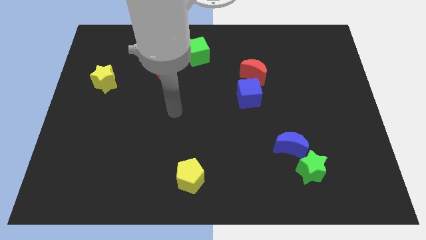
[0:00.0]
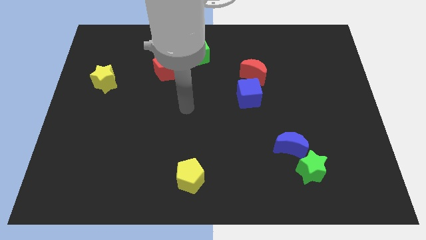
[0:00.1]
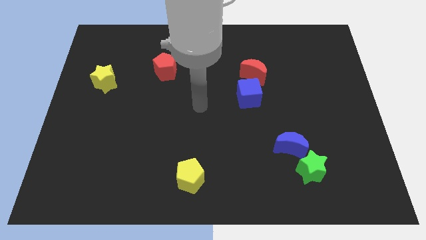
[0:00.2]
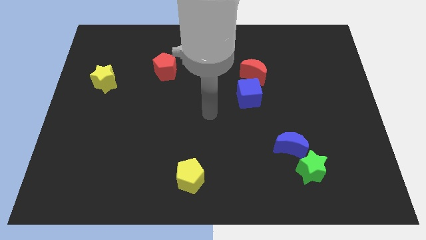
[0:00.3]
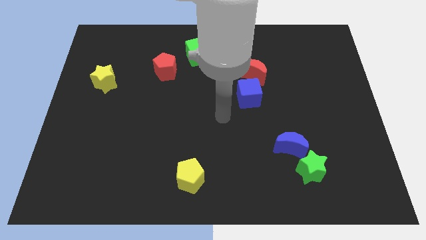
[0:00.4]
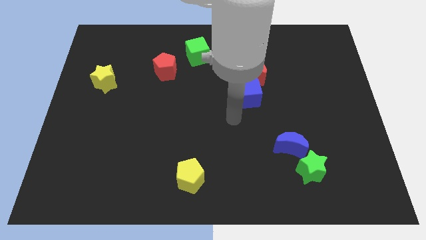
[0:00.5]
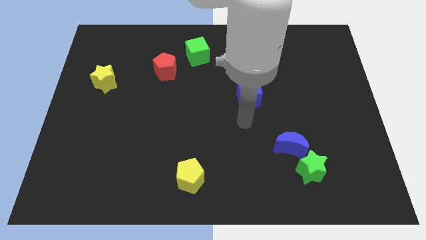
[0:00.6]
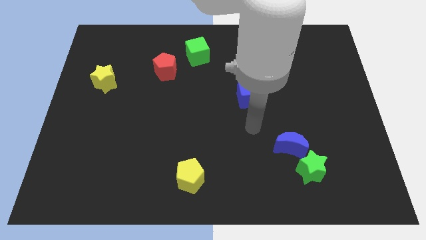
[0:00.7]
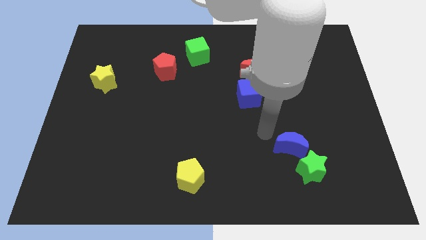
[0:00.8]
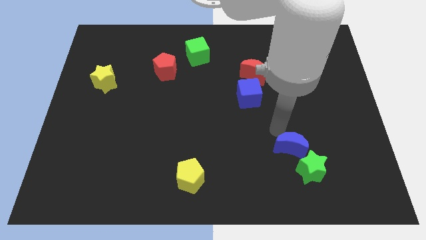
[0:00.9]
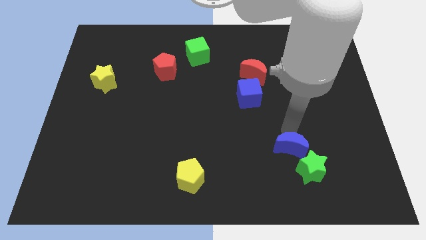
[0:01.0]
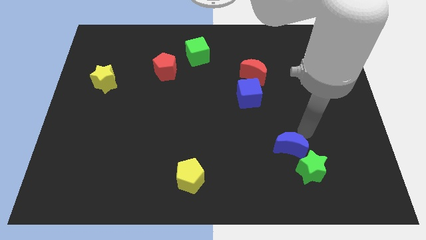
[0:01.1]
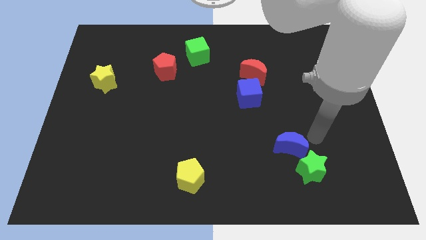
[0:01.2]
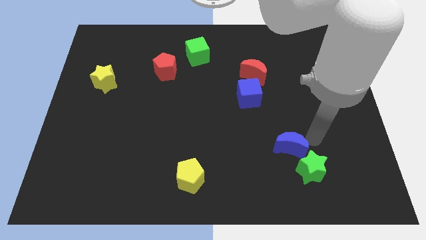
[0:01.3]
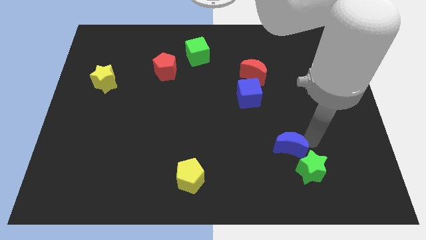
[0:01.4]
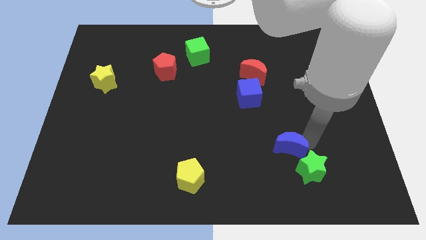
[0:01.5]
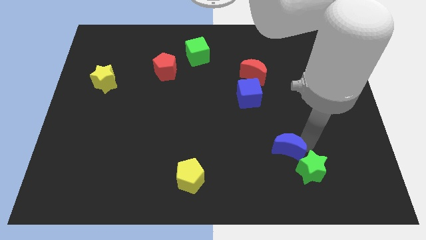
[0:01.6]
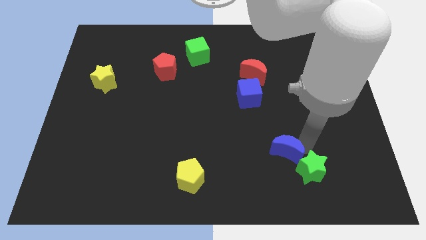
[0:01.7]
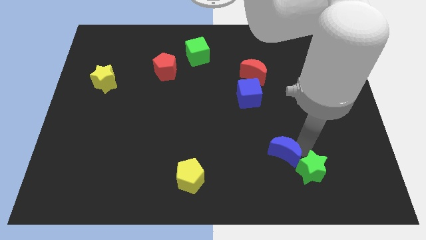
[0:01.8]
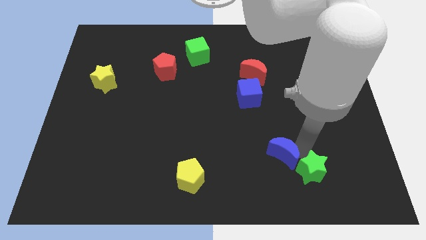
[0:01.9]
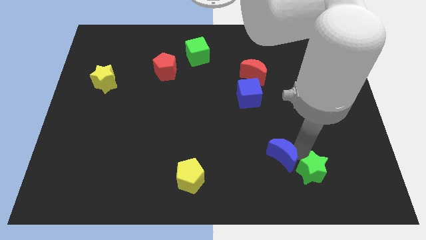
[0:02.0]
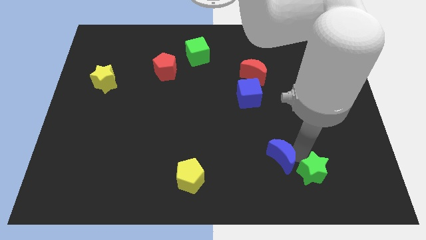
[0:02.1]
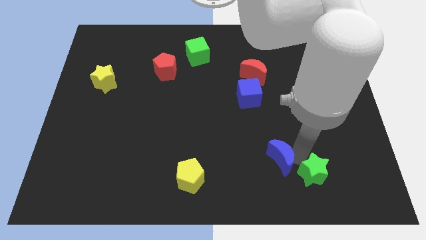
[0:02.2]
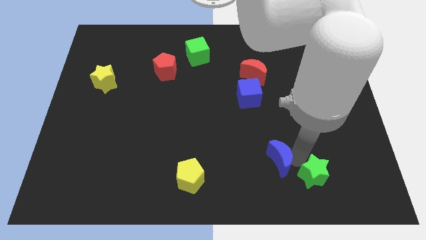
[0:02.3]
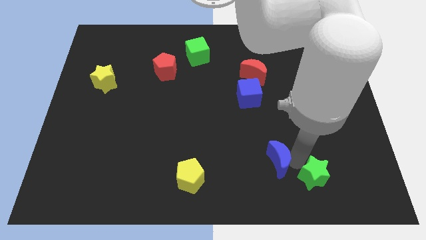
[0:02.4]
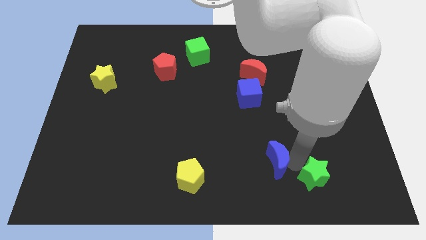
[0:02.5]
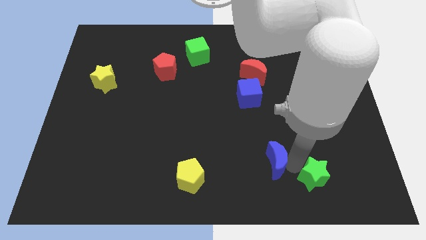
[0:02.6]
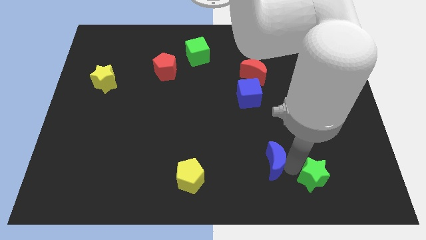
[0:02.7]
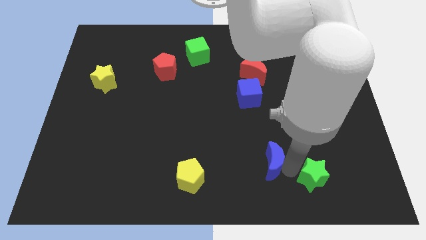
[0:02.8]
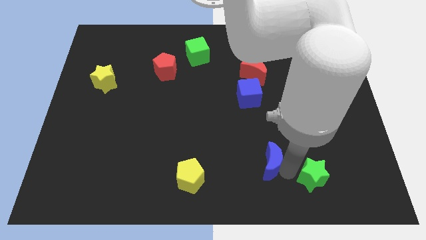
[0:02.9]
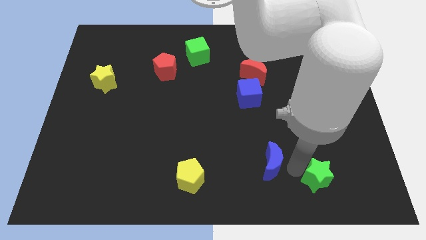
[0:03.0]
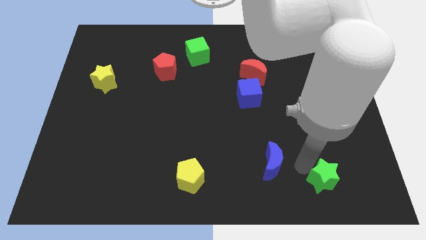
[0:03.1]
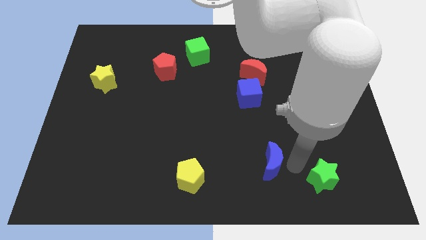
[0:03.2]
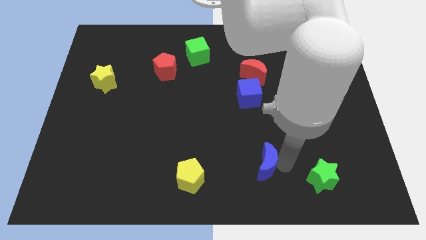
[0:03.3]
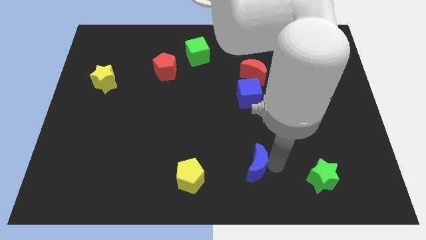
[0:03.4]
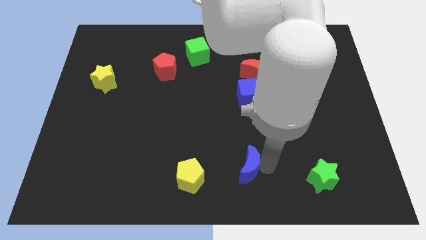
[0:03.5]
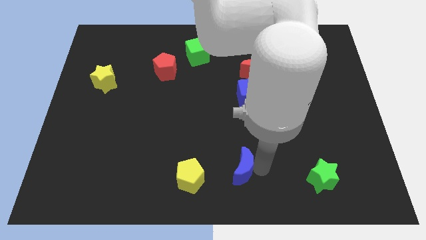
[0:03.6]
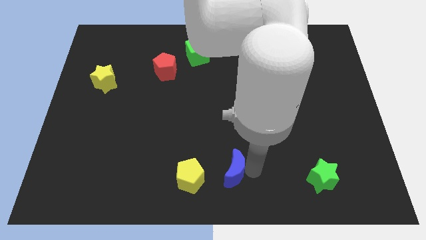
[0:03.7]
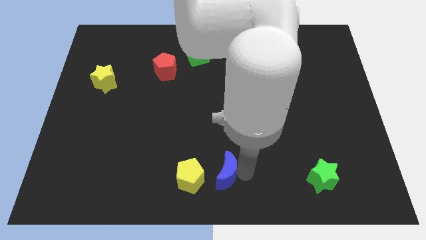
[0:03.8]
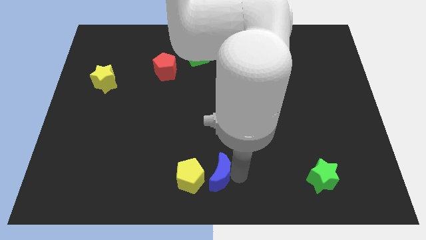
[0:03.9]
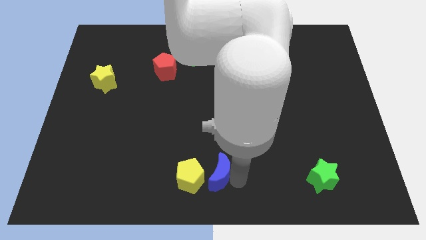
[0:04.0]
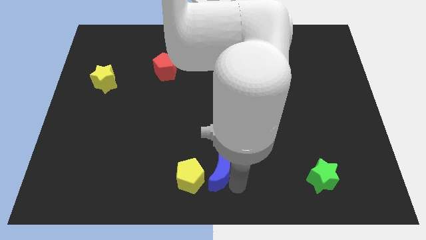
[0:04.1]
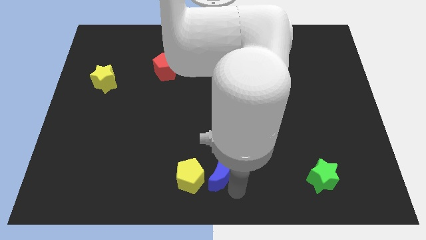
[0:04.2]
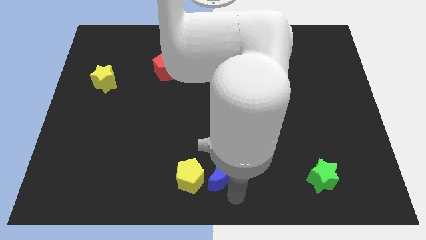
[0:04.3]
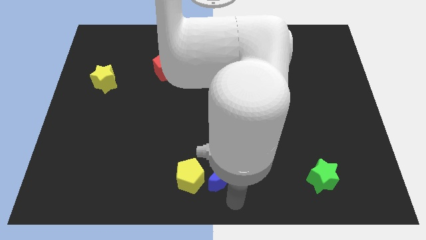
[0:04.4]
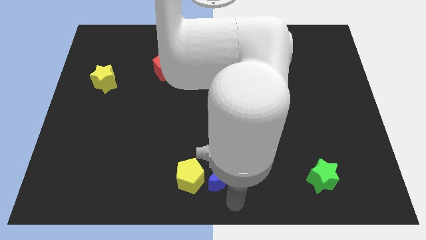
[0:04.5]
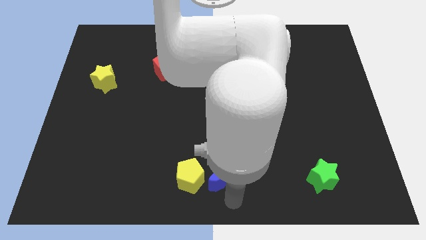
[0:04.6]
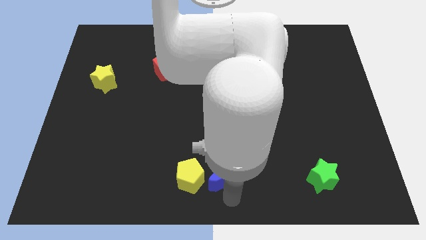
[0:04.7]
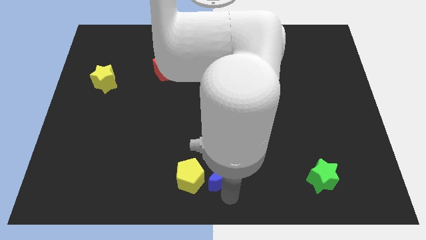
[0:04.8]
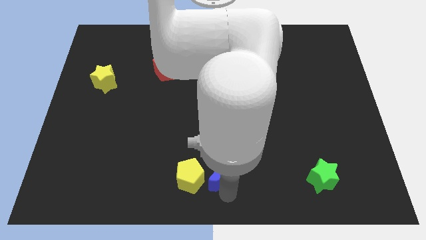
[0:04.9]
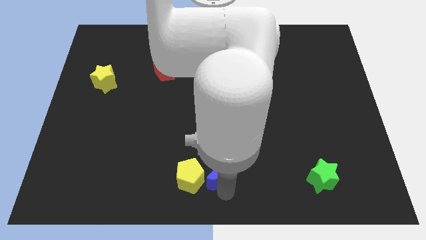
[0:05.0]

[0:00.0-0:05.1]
put the blue moon close to the yellow pentagon

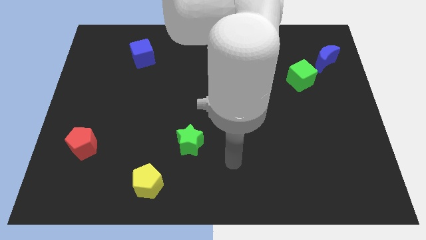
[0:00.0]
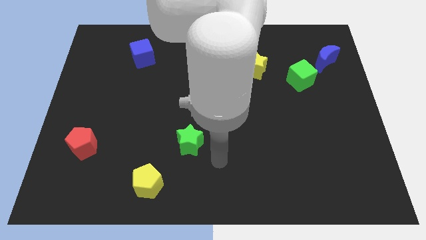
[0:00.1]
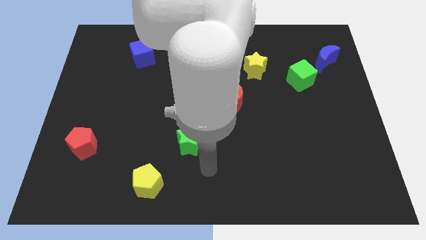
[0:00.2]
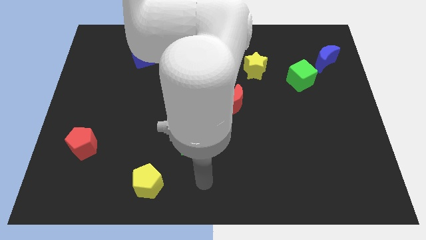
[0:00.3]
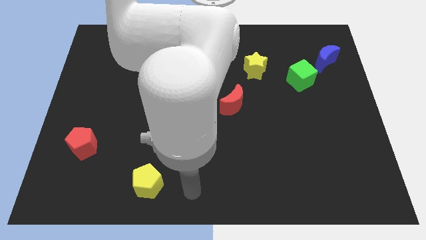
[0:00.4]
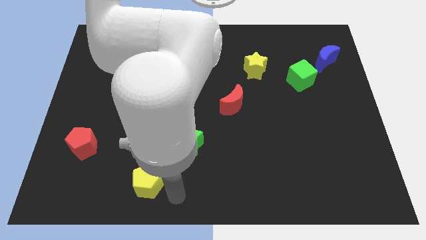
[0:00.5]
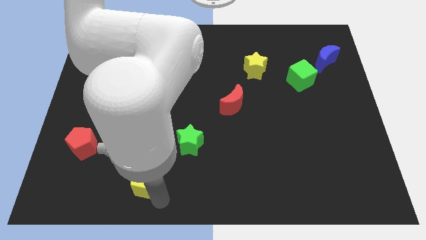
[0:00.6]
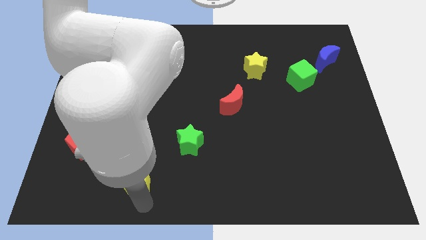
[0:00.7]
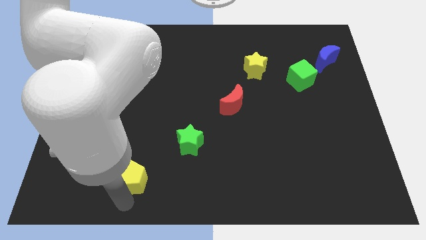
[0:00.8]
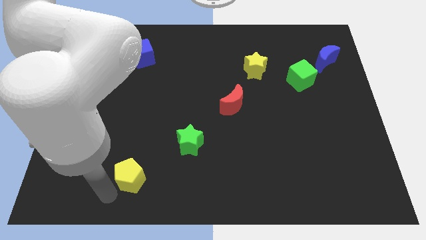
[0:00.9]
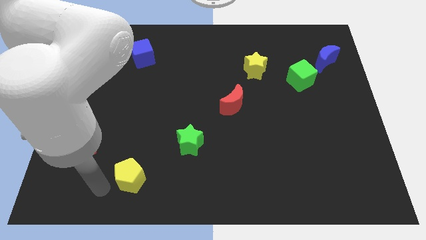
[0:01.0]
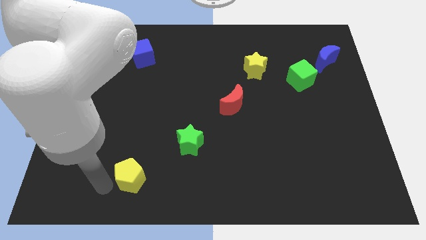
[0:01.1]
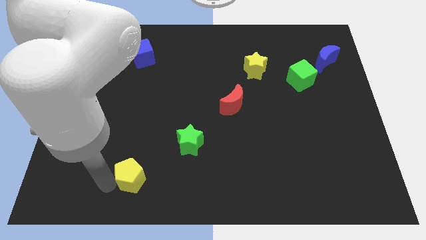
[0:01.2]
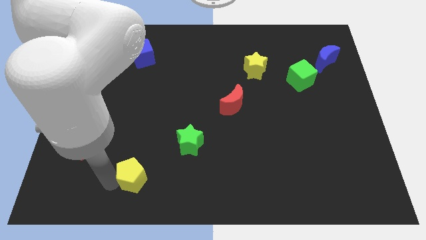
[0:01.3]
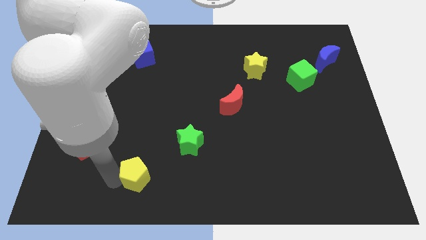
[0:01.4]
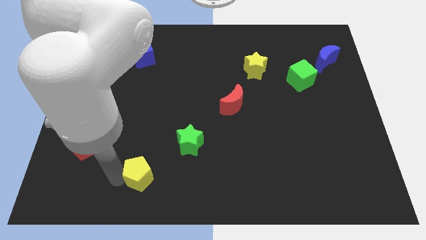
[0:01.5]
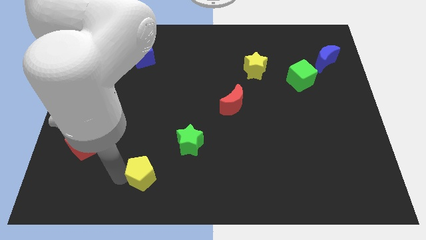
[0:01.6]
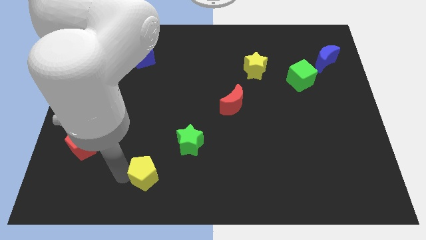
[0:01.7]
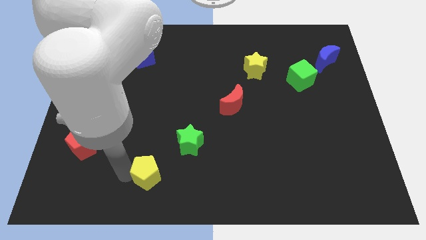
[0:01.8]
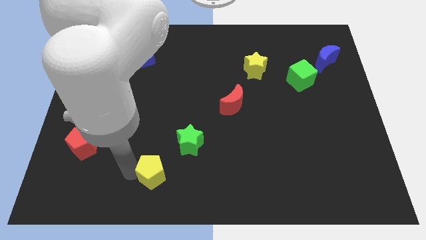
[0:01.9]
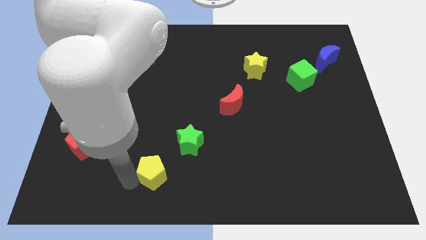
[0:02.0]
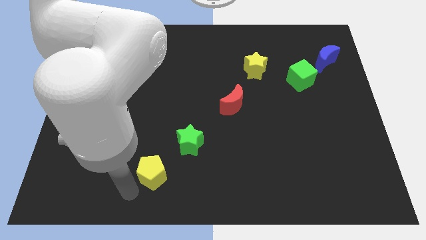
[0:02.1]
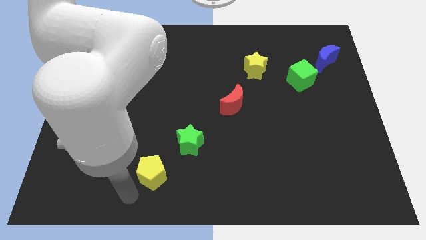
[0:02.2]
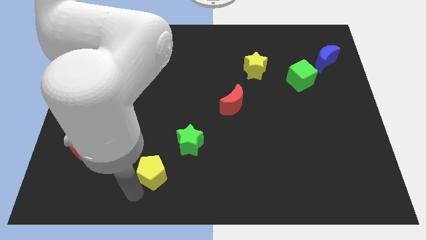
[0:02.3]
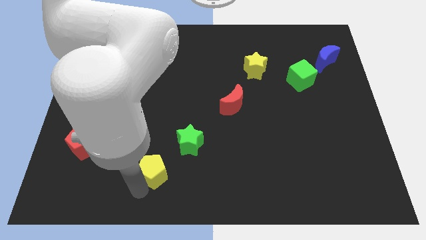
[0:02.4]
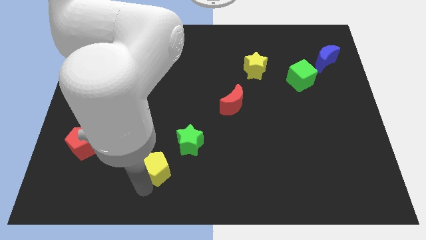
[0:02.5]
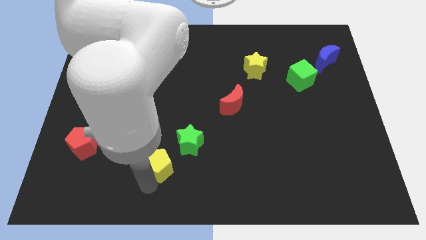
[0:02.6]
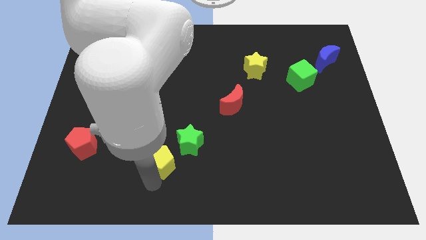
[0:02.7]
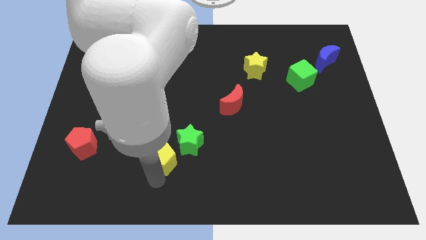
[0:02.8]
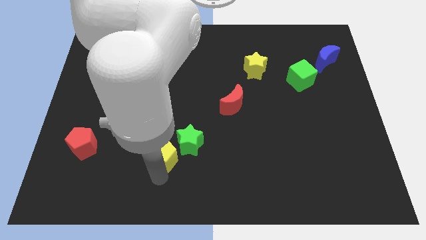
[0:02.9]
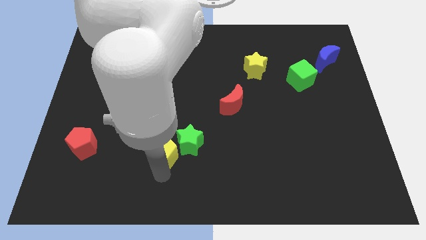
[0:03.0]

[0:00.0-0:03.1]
slide the yellow pentagon close to the green star
